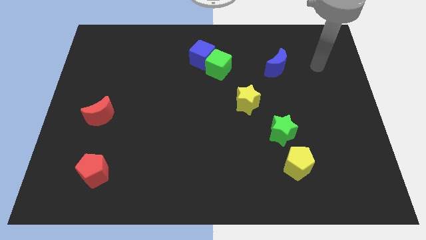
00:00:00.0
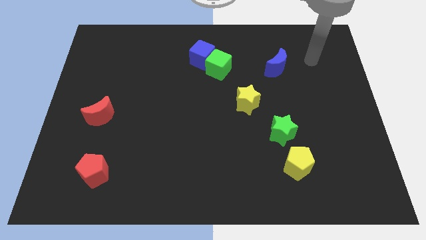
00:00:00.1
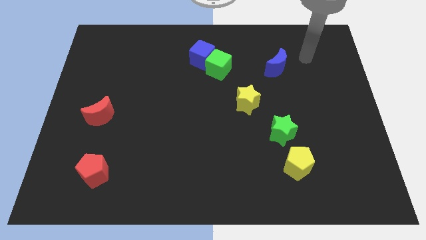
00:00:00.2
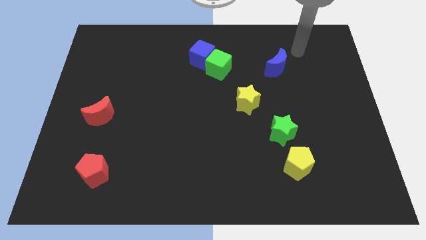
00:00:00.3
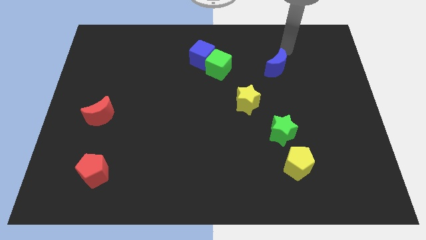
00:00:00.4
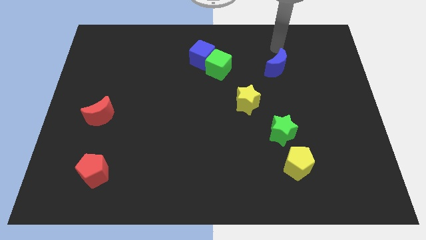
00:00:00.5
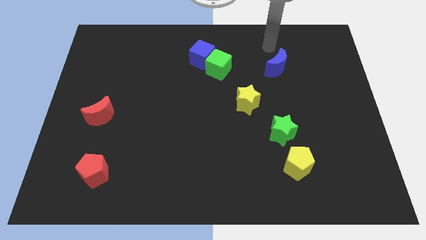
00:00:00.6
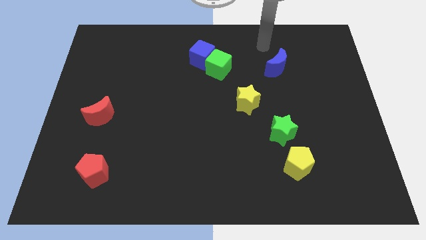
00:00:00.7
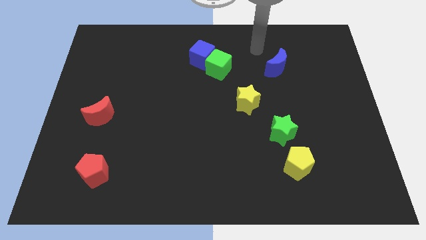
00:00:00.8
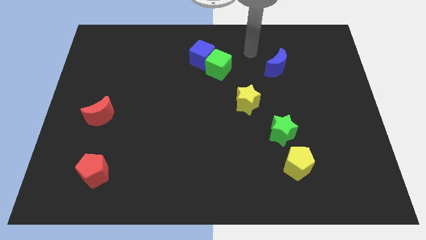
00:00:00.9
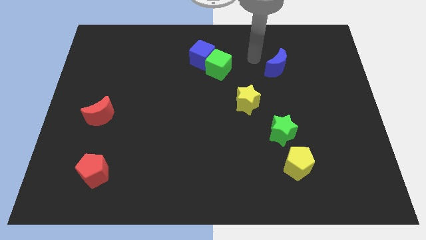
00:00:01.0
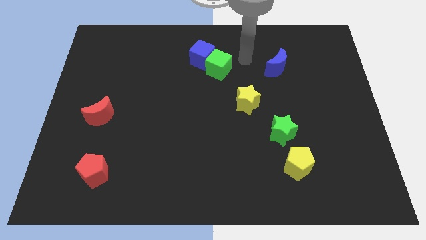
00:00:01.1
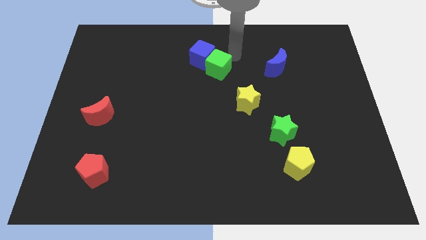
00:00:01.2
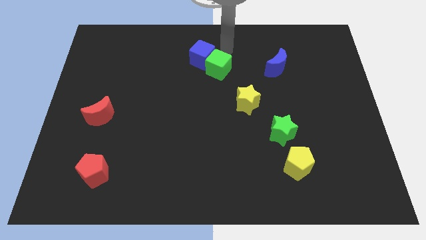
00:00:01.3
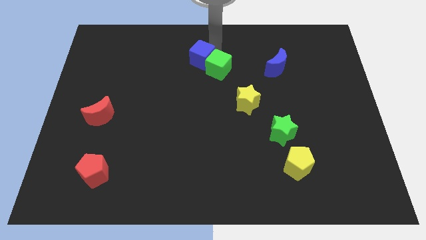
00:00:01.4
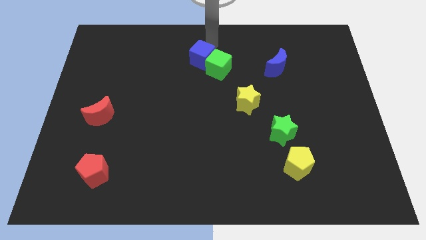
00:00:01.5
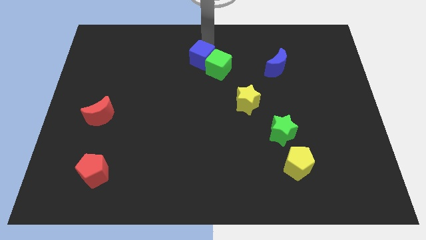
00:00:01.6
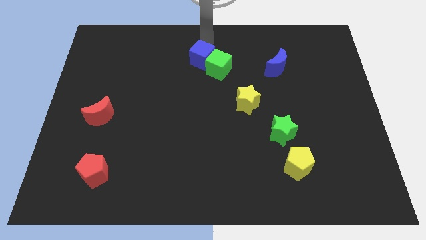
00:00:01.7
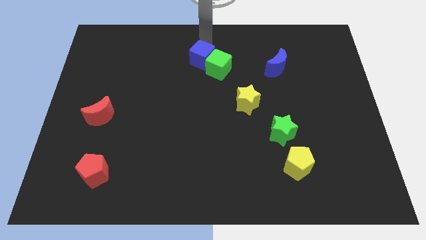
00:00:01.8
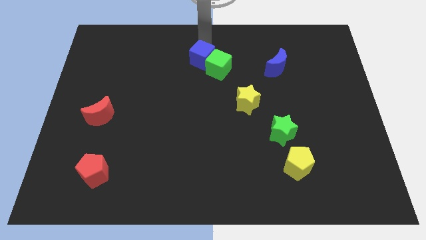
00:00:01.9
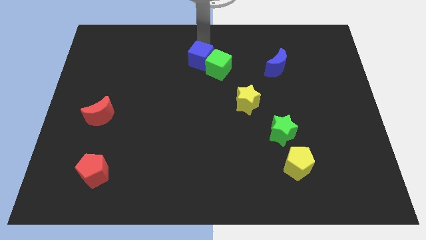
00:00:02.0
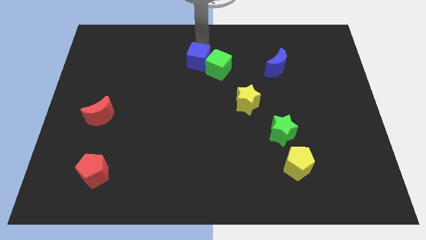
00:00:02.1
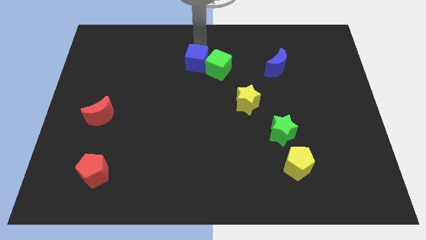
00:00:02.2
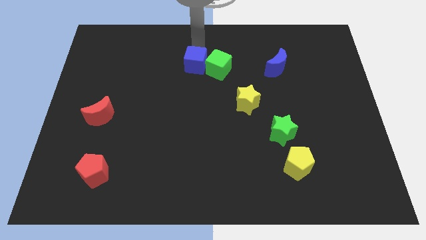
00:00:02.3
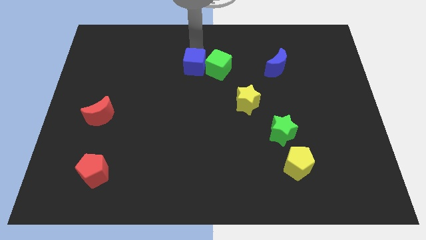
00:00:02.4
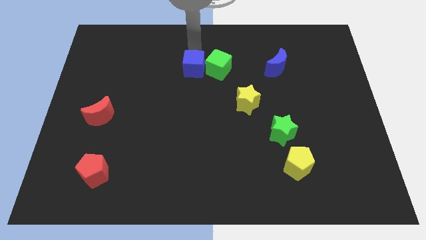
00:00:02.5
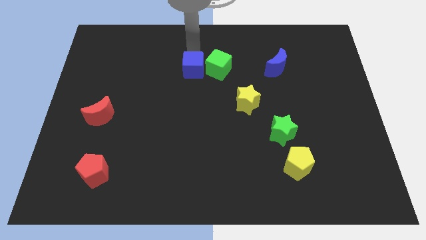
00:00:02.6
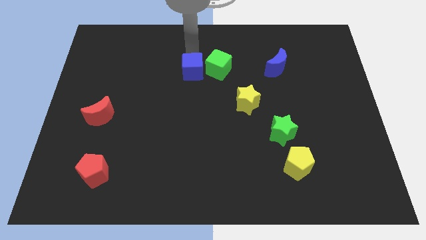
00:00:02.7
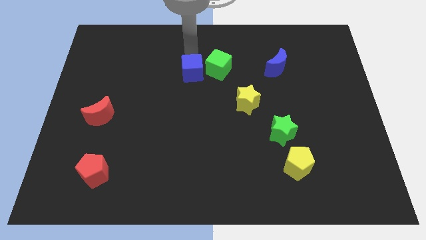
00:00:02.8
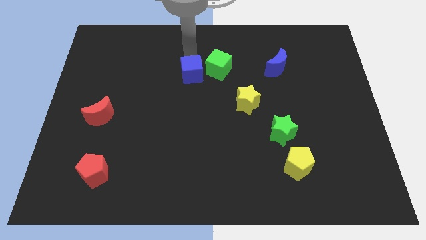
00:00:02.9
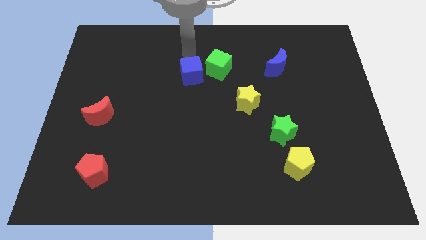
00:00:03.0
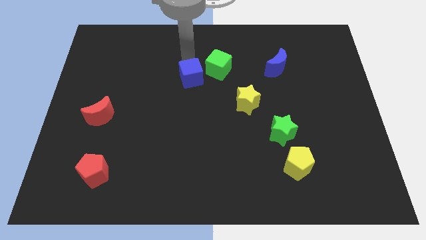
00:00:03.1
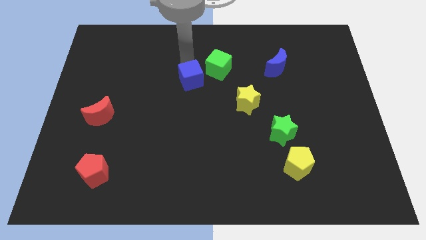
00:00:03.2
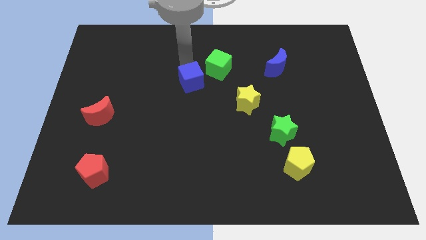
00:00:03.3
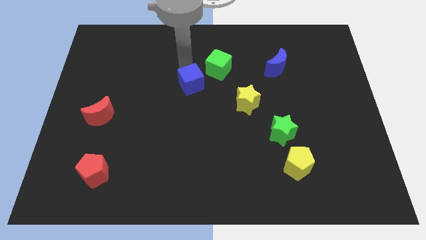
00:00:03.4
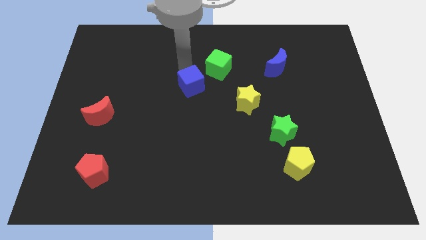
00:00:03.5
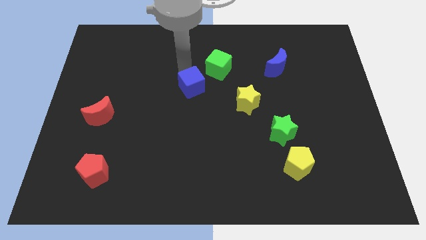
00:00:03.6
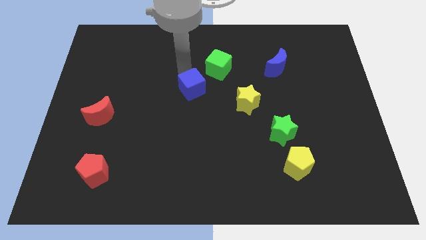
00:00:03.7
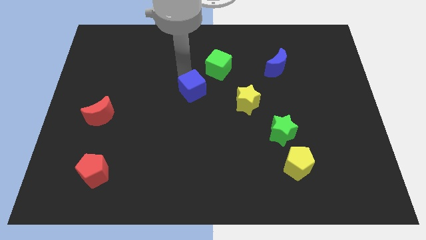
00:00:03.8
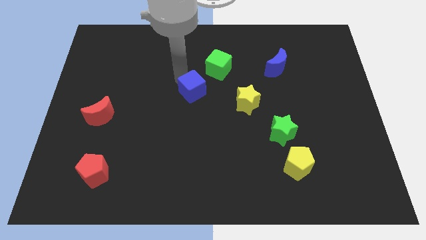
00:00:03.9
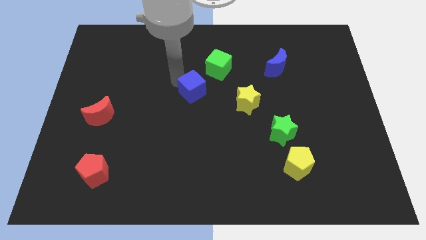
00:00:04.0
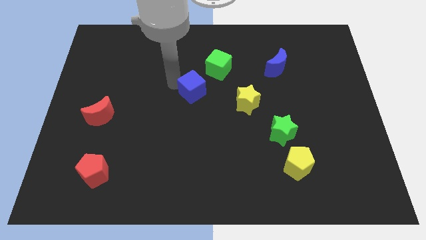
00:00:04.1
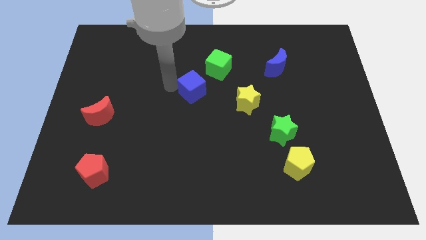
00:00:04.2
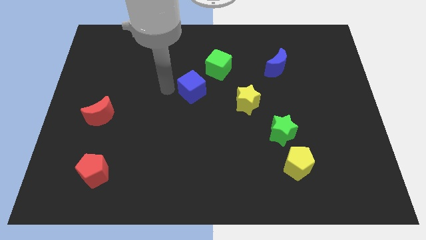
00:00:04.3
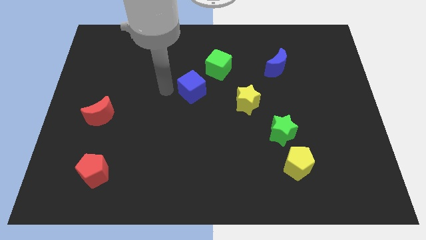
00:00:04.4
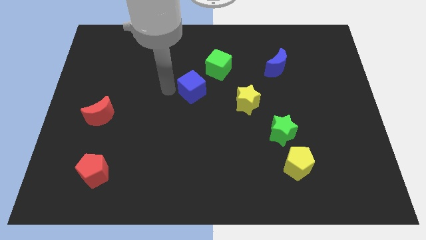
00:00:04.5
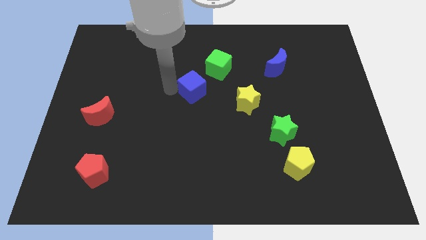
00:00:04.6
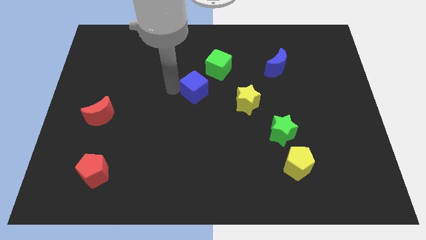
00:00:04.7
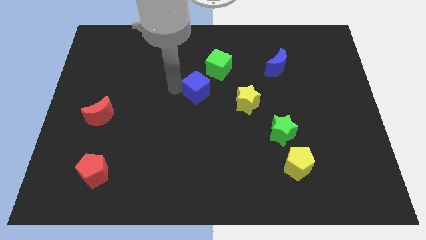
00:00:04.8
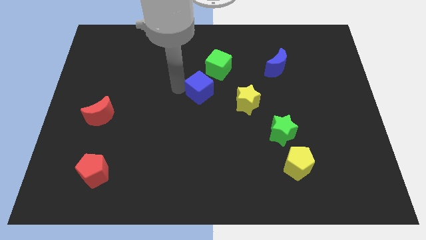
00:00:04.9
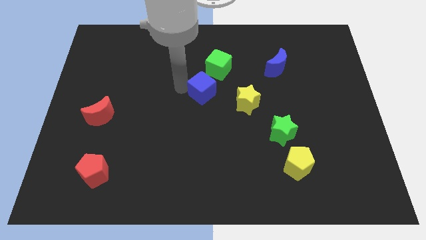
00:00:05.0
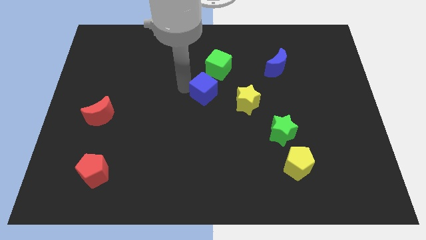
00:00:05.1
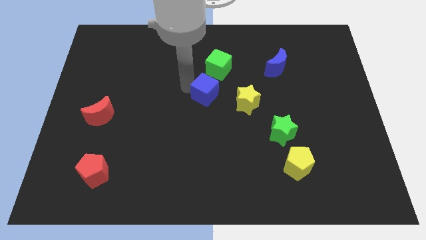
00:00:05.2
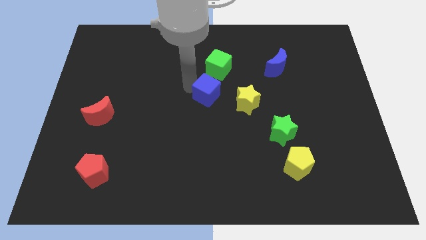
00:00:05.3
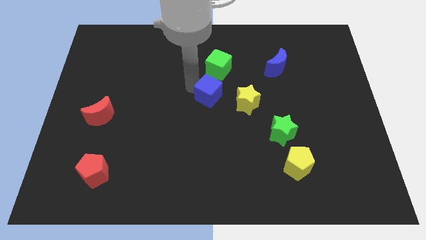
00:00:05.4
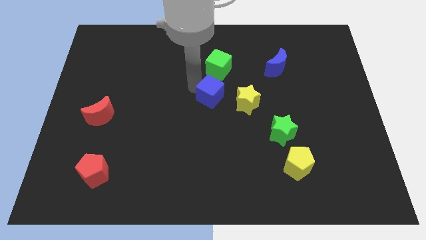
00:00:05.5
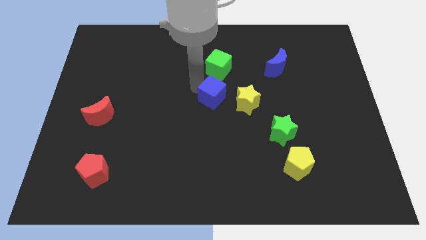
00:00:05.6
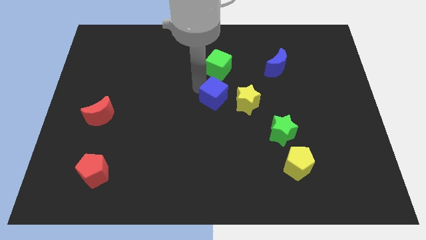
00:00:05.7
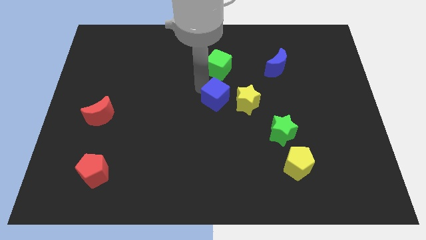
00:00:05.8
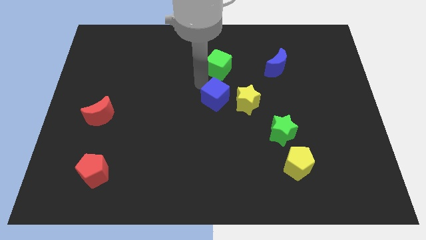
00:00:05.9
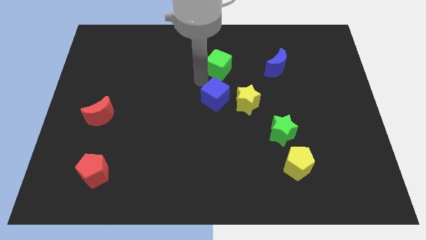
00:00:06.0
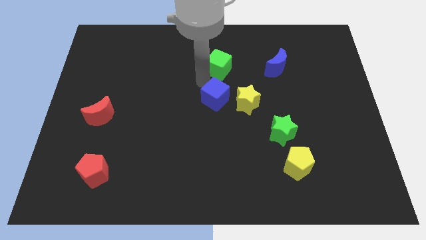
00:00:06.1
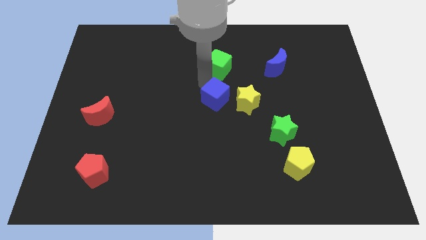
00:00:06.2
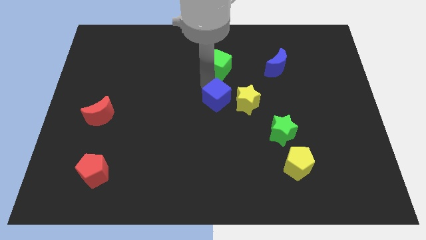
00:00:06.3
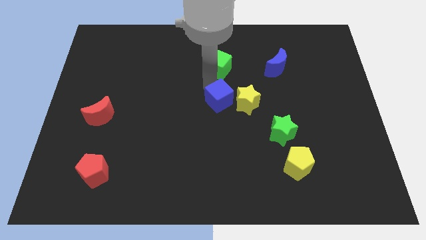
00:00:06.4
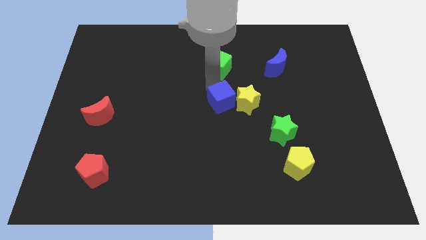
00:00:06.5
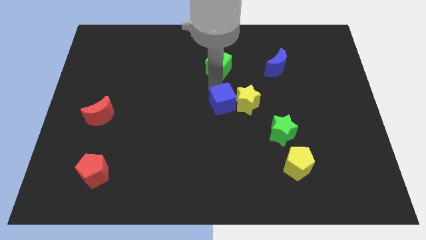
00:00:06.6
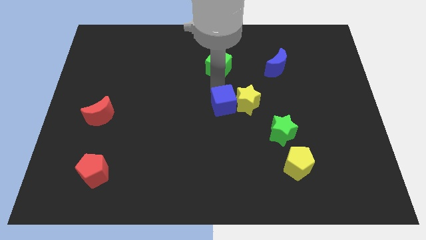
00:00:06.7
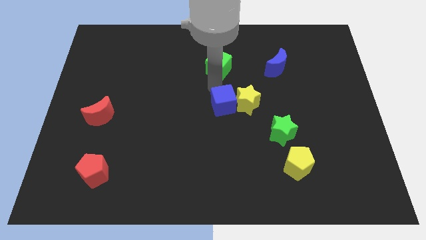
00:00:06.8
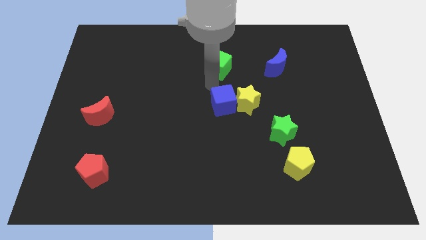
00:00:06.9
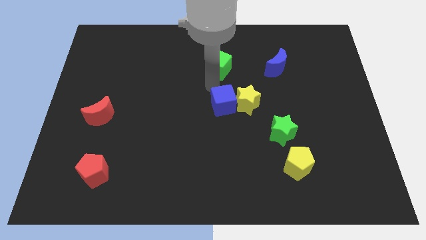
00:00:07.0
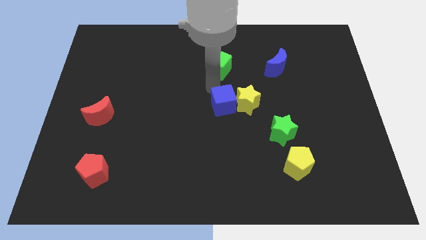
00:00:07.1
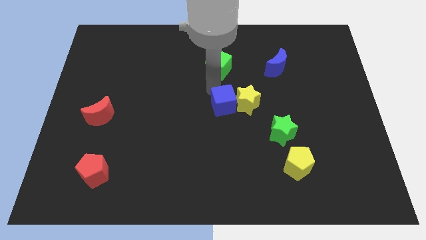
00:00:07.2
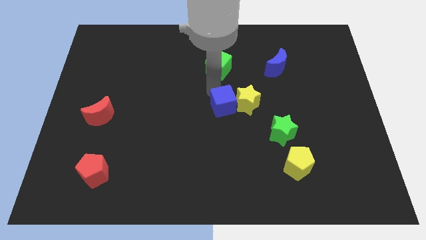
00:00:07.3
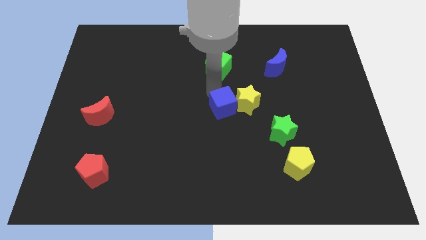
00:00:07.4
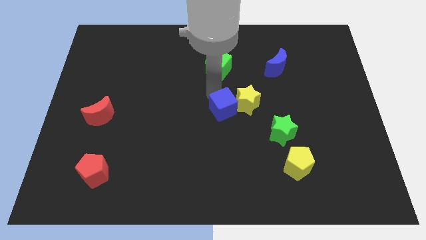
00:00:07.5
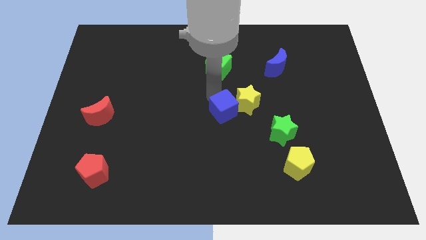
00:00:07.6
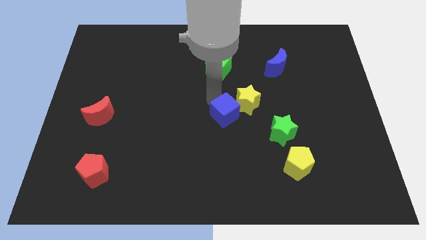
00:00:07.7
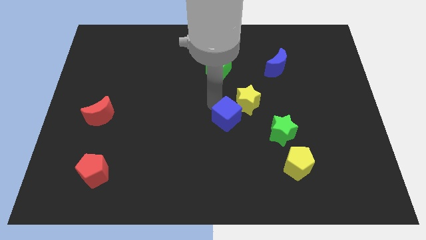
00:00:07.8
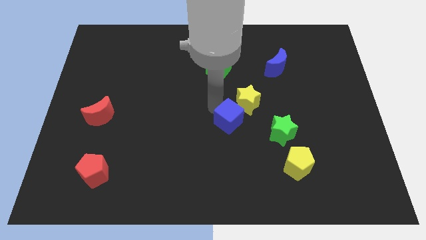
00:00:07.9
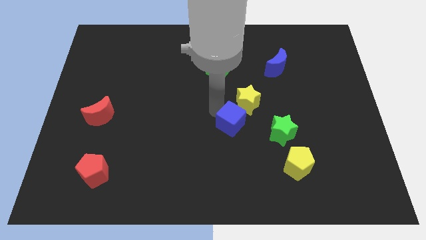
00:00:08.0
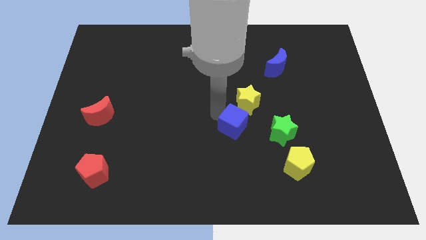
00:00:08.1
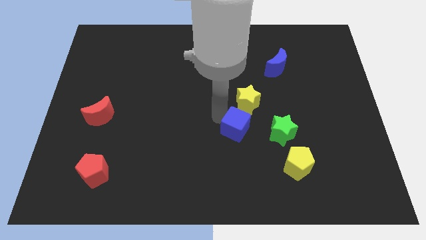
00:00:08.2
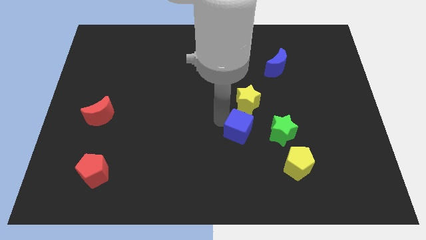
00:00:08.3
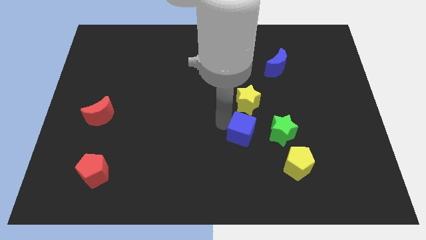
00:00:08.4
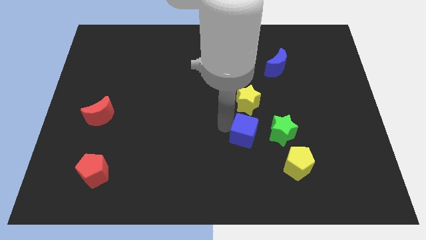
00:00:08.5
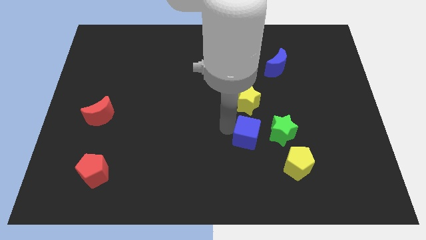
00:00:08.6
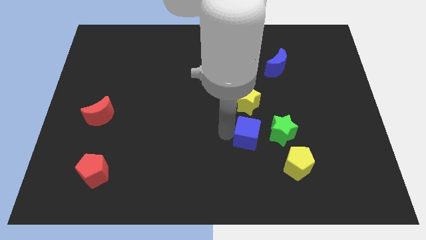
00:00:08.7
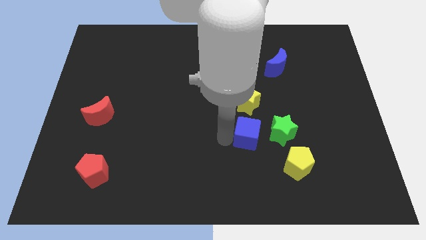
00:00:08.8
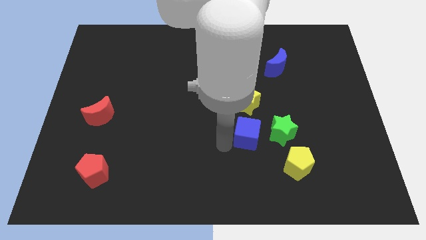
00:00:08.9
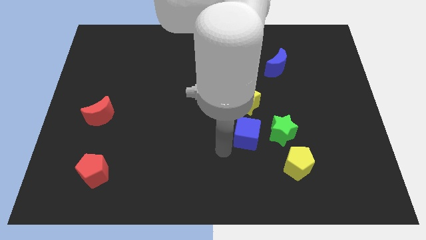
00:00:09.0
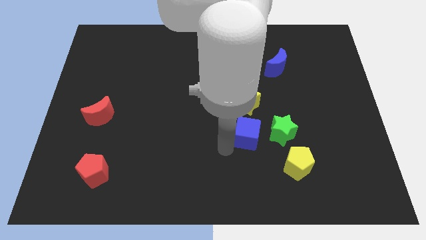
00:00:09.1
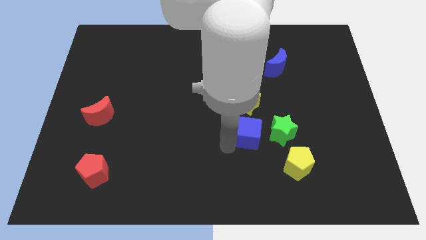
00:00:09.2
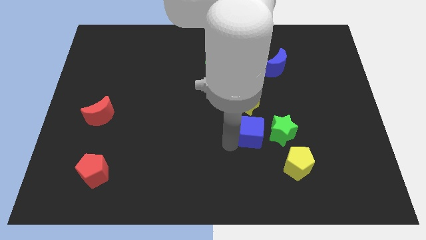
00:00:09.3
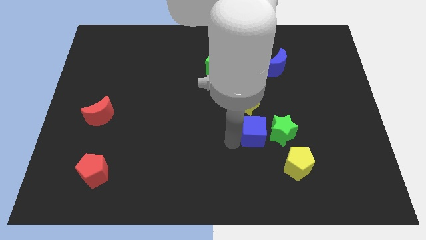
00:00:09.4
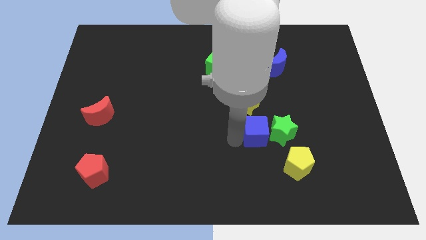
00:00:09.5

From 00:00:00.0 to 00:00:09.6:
put the blue cube to the bottom right of the yellow star
